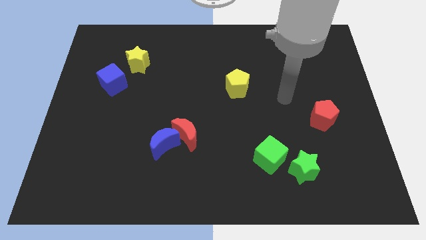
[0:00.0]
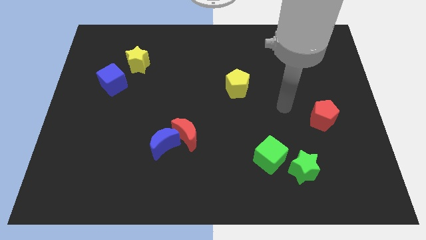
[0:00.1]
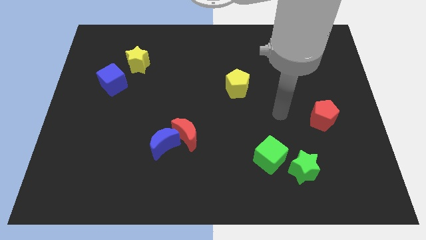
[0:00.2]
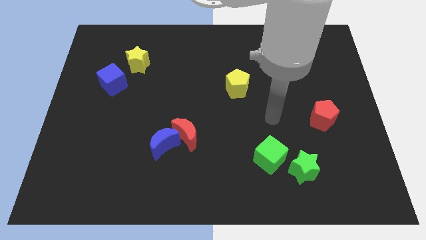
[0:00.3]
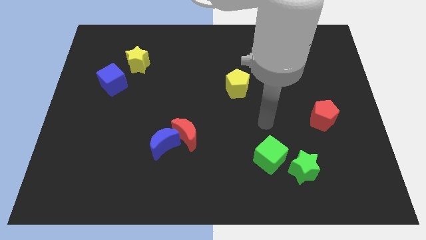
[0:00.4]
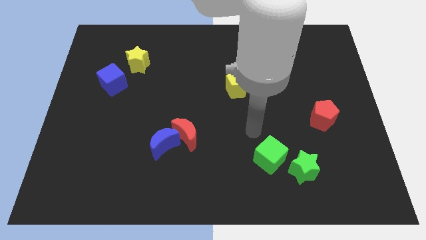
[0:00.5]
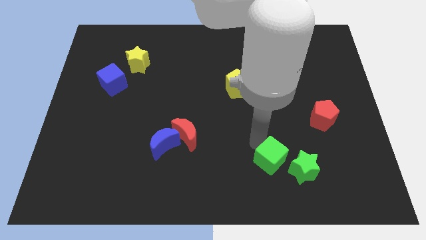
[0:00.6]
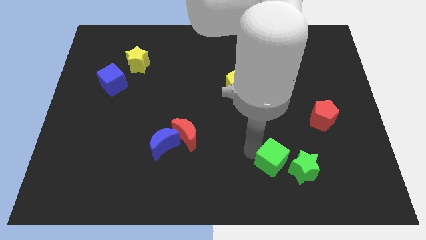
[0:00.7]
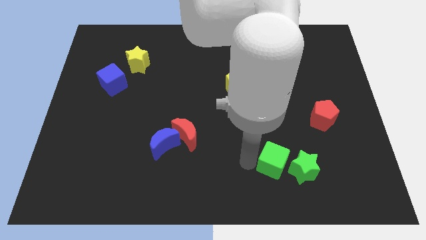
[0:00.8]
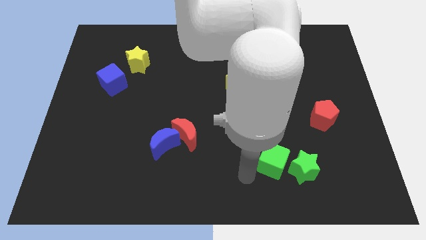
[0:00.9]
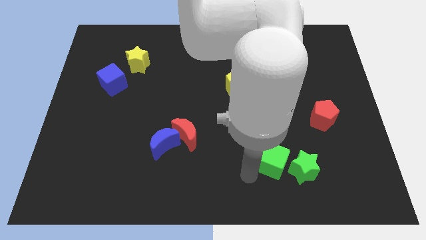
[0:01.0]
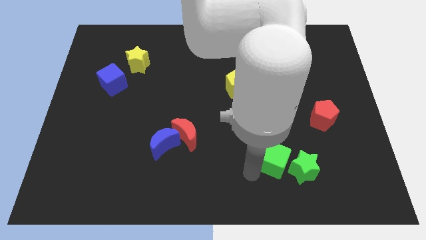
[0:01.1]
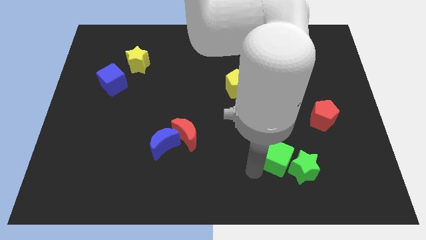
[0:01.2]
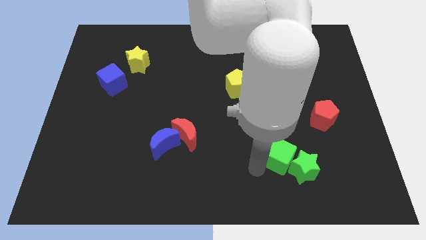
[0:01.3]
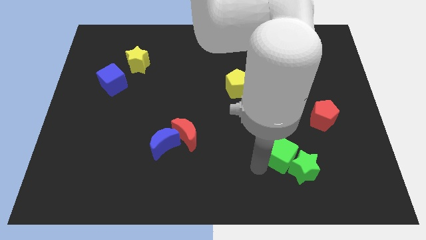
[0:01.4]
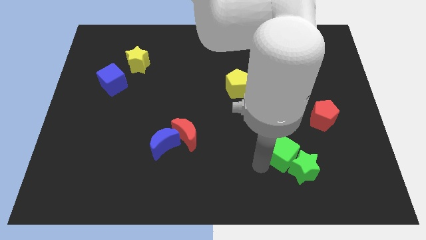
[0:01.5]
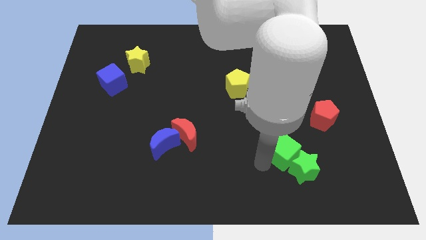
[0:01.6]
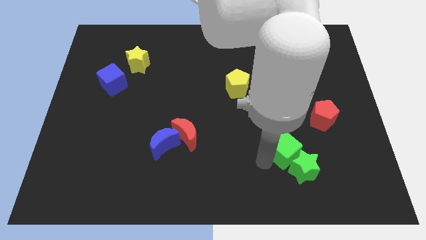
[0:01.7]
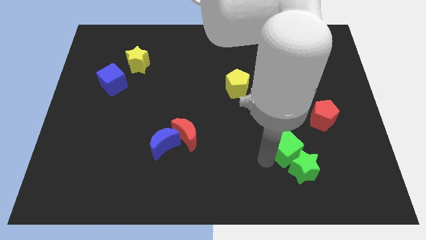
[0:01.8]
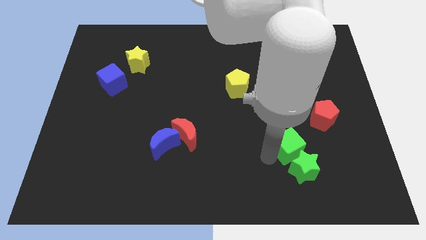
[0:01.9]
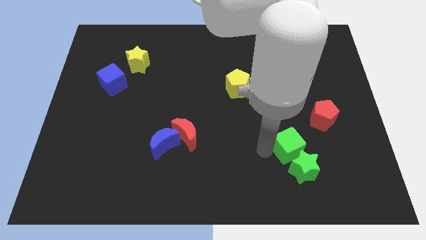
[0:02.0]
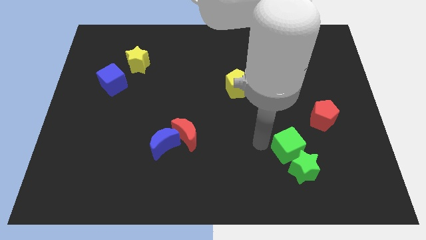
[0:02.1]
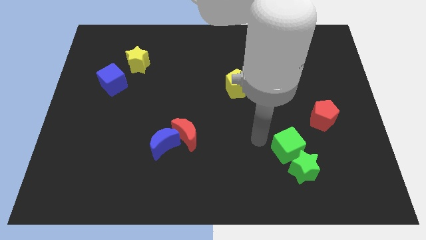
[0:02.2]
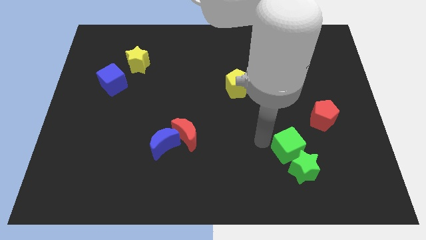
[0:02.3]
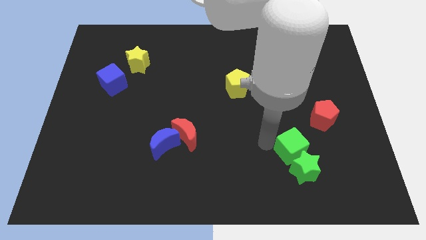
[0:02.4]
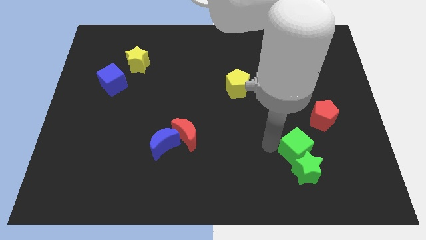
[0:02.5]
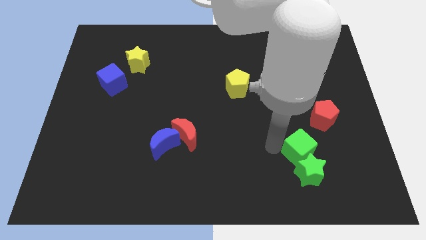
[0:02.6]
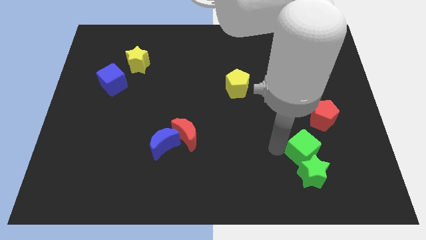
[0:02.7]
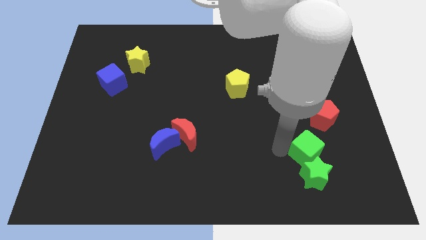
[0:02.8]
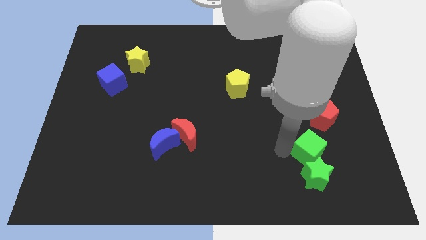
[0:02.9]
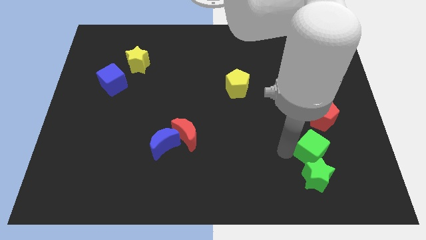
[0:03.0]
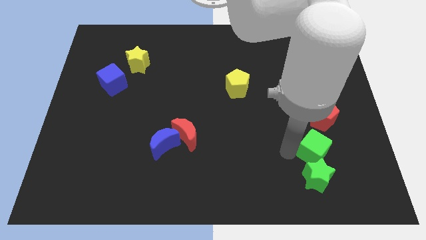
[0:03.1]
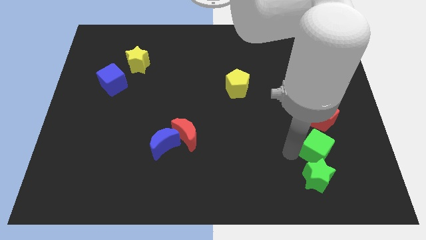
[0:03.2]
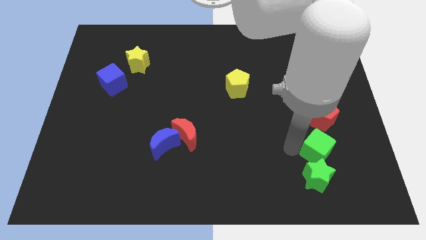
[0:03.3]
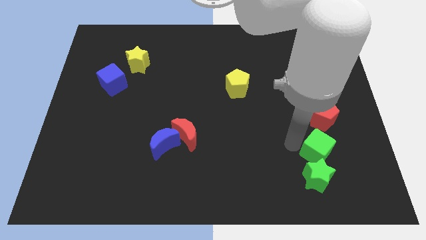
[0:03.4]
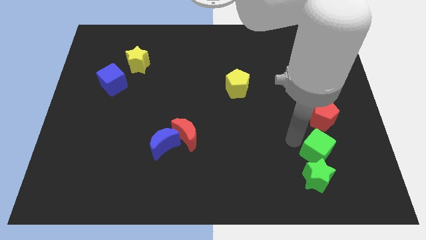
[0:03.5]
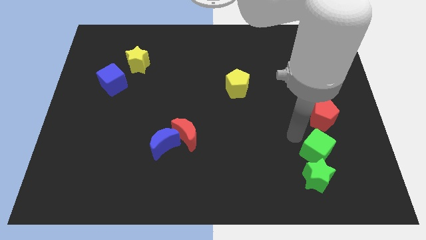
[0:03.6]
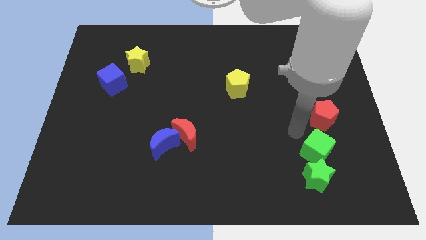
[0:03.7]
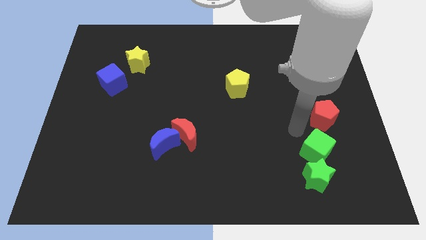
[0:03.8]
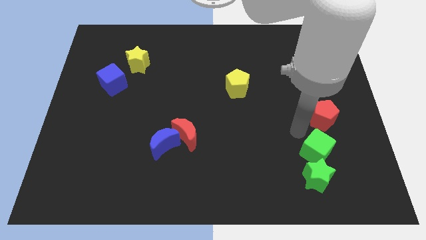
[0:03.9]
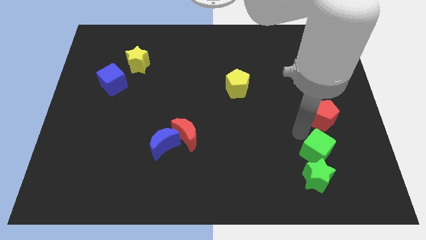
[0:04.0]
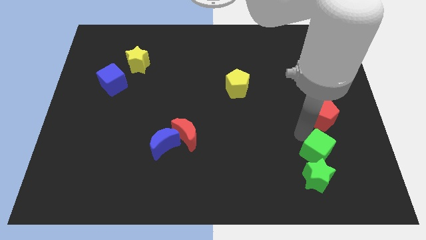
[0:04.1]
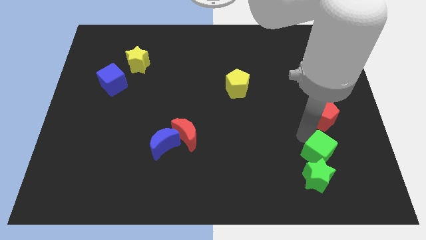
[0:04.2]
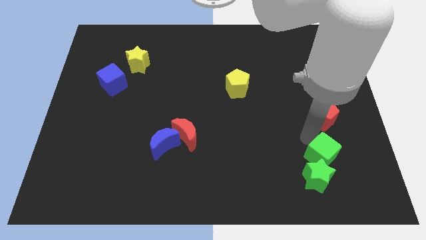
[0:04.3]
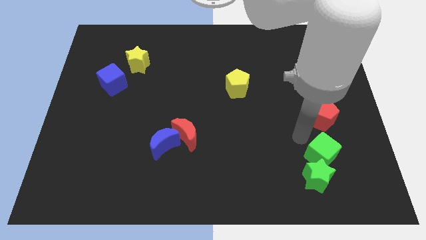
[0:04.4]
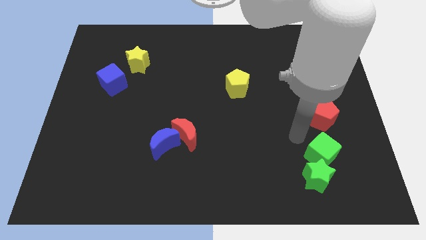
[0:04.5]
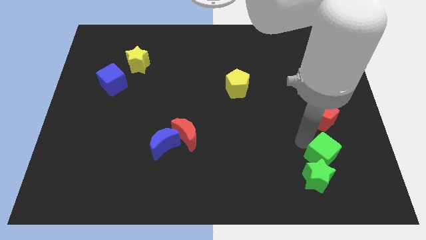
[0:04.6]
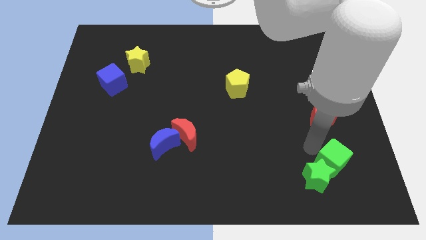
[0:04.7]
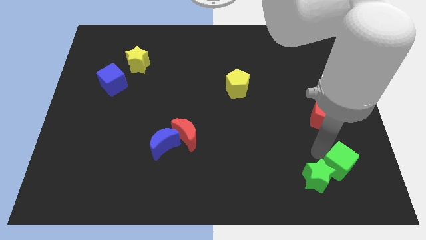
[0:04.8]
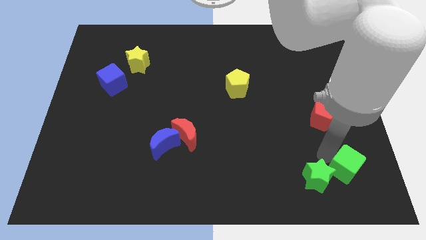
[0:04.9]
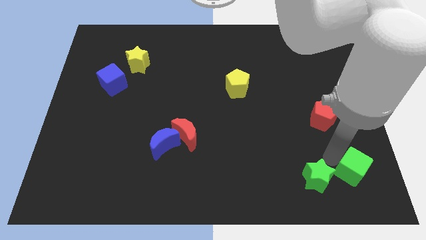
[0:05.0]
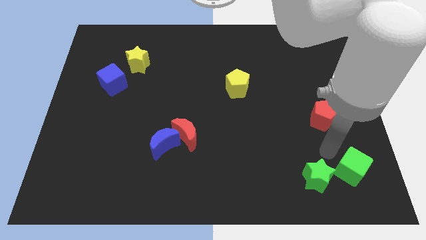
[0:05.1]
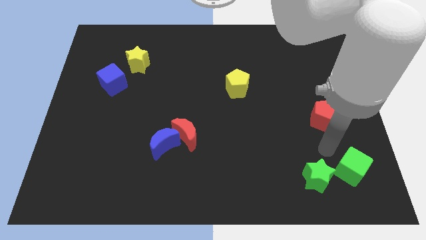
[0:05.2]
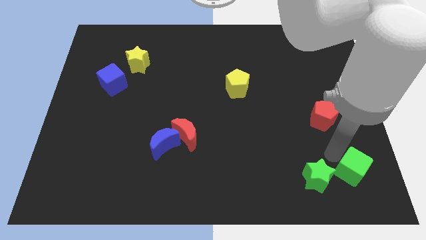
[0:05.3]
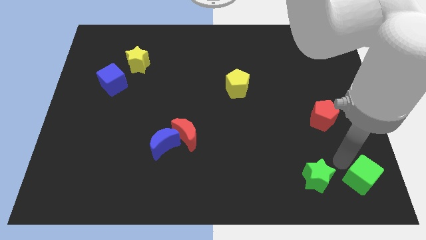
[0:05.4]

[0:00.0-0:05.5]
put the green cube to the lower right corner

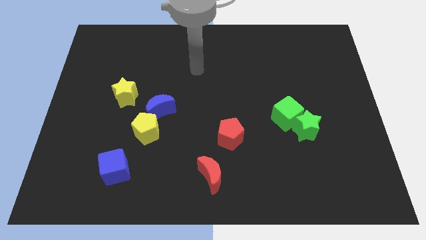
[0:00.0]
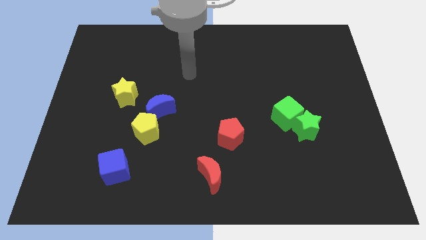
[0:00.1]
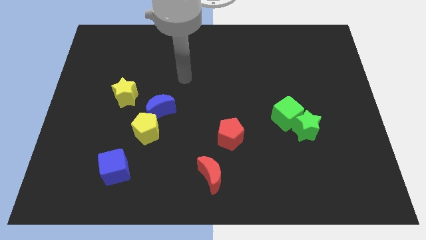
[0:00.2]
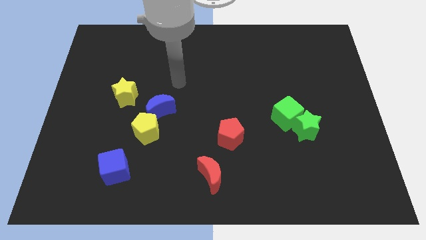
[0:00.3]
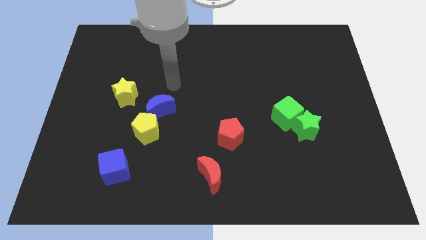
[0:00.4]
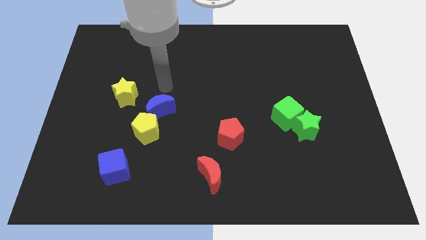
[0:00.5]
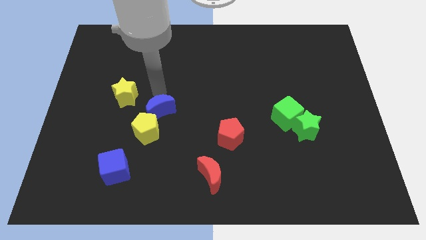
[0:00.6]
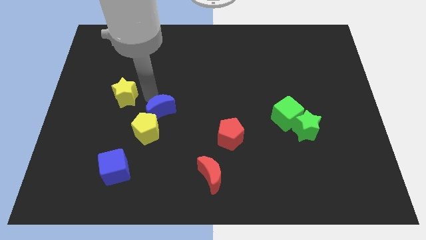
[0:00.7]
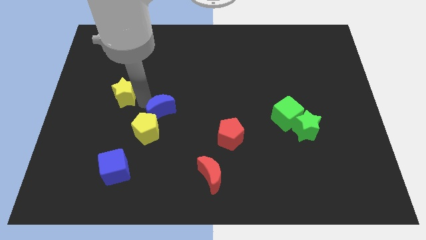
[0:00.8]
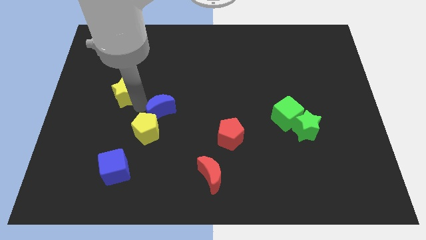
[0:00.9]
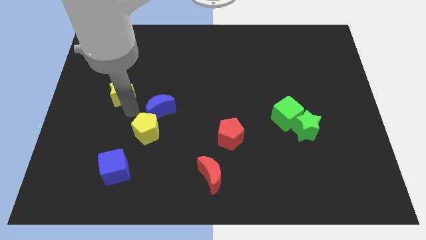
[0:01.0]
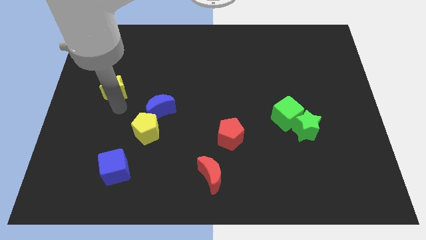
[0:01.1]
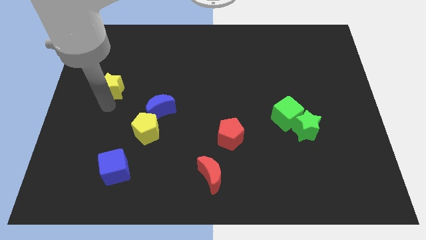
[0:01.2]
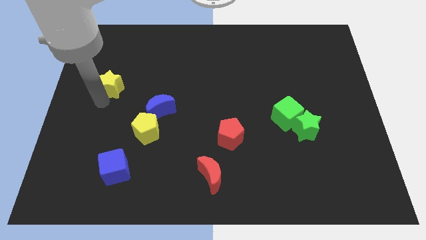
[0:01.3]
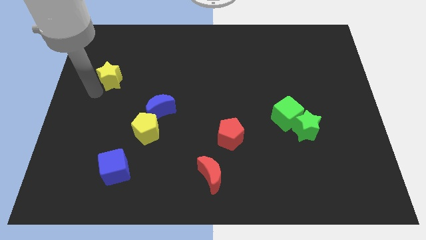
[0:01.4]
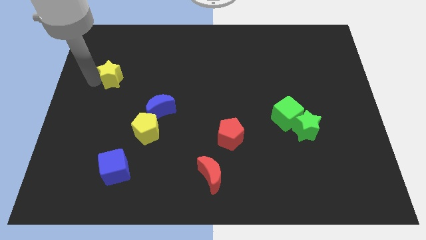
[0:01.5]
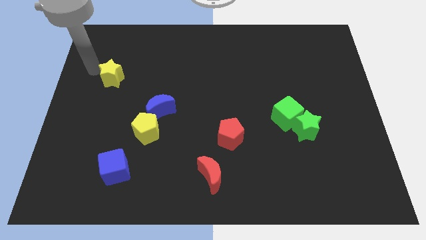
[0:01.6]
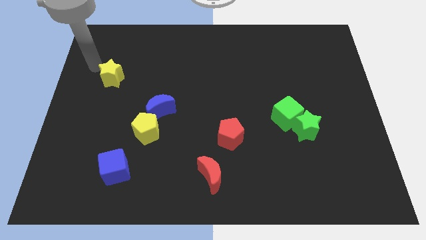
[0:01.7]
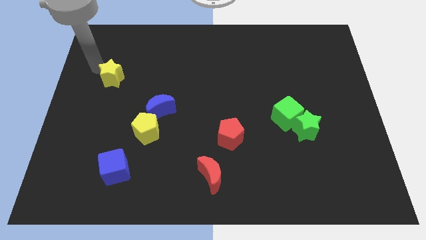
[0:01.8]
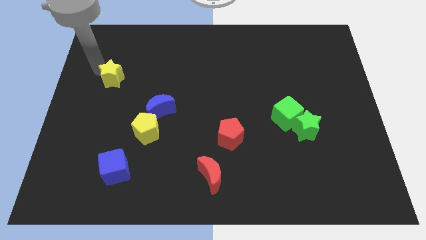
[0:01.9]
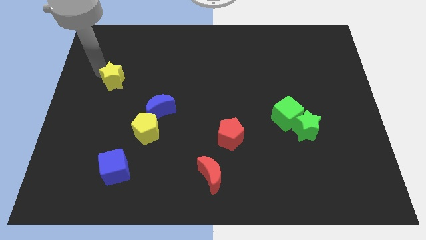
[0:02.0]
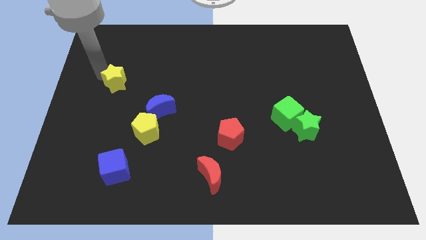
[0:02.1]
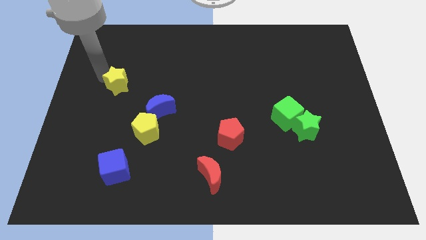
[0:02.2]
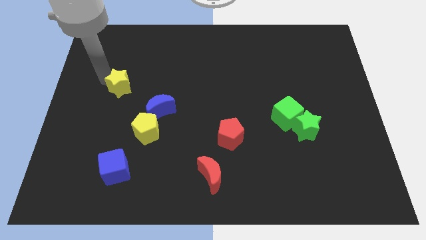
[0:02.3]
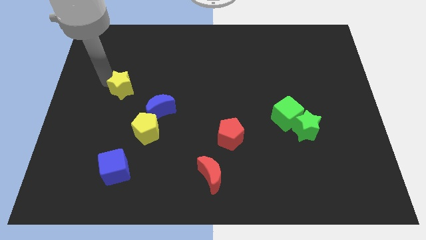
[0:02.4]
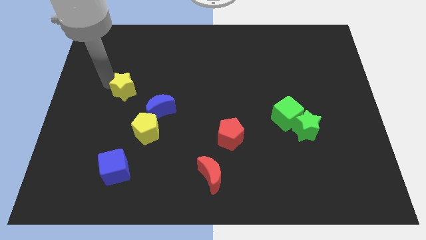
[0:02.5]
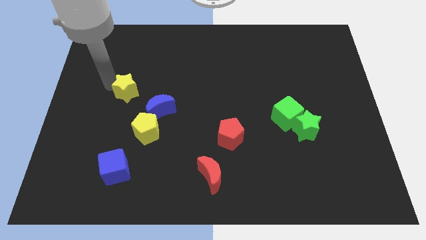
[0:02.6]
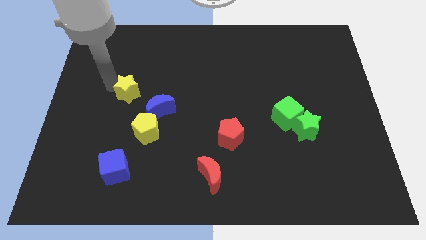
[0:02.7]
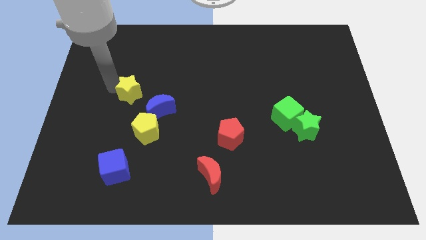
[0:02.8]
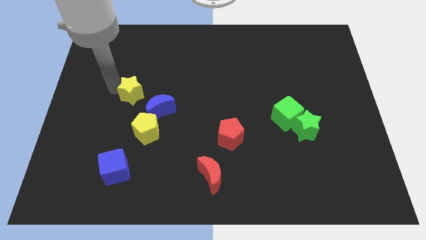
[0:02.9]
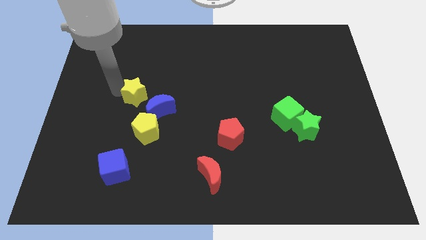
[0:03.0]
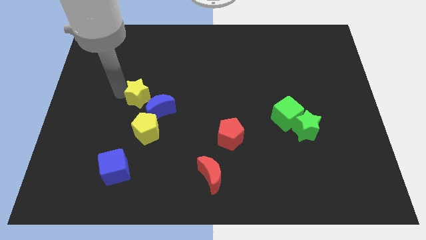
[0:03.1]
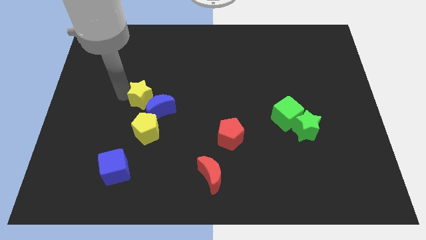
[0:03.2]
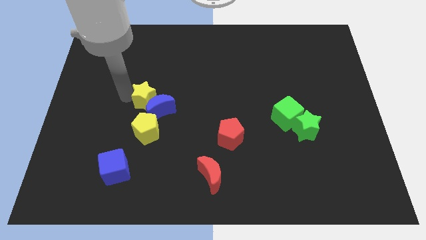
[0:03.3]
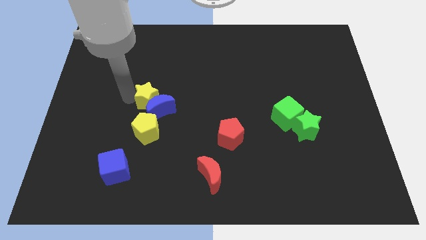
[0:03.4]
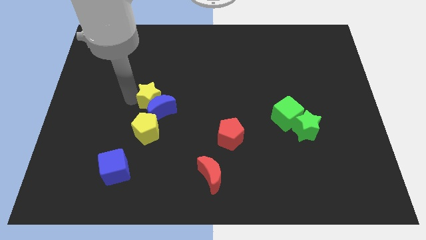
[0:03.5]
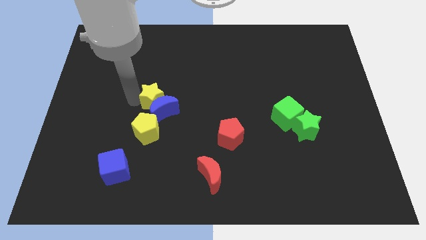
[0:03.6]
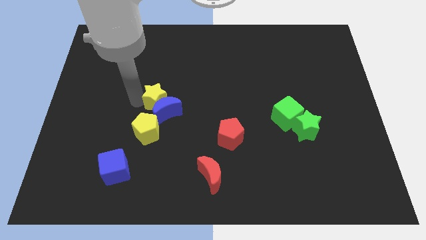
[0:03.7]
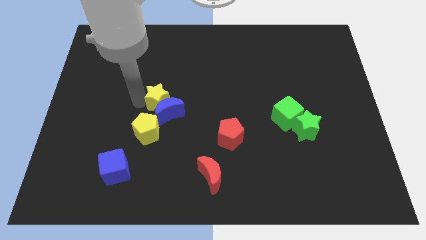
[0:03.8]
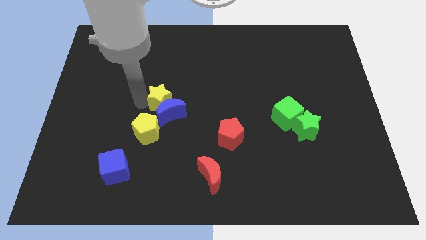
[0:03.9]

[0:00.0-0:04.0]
slide the yellow star to the center
